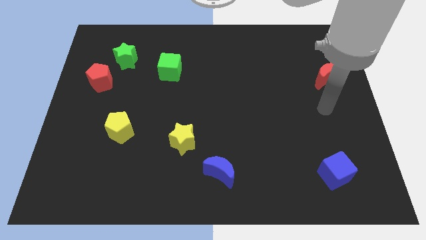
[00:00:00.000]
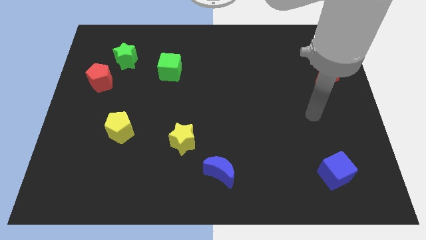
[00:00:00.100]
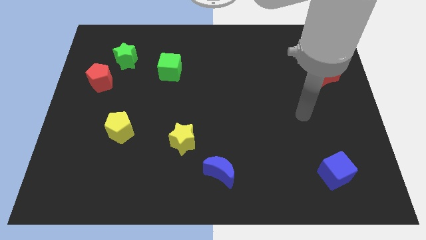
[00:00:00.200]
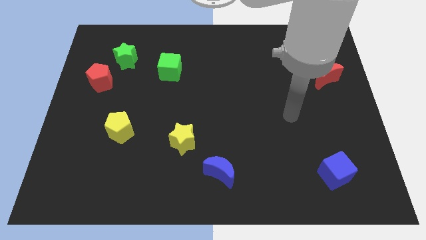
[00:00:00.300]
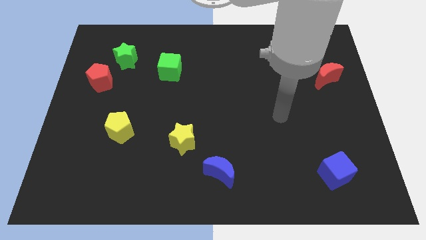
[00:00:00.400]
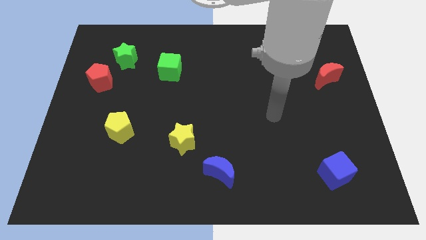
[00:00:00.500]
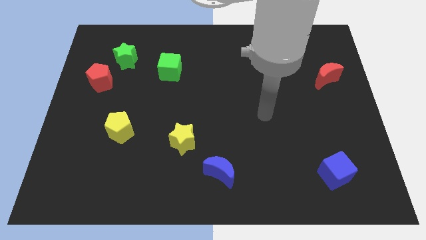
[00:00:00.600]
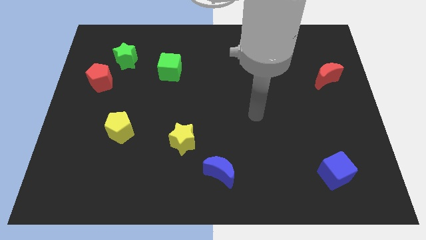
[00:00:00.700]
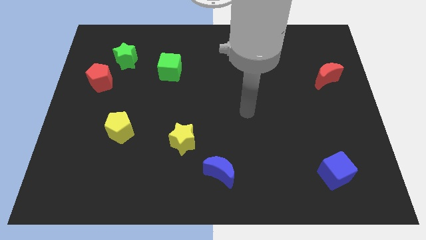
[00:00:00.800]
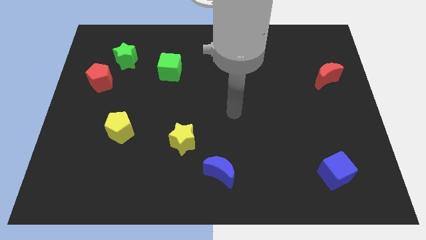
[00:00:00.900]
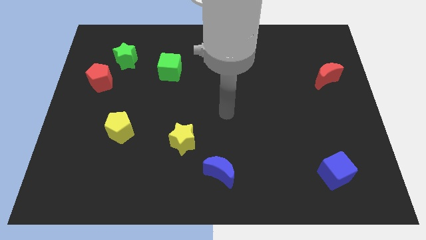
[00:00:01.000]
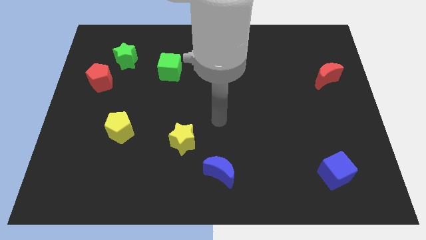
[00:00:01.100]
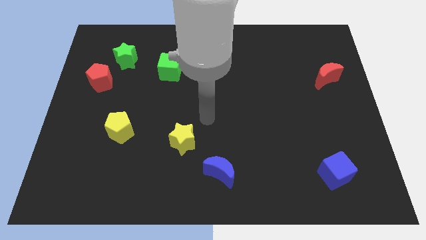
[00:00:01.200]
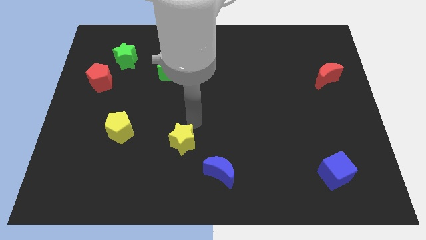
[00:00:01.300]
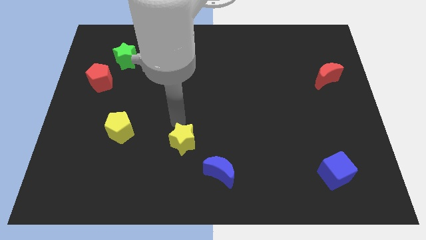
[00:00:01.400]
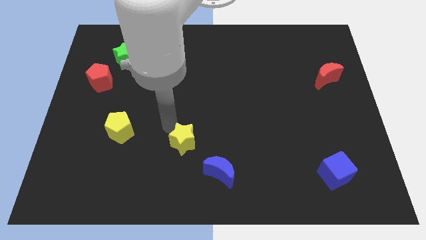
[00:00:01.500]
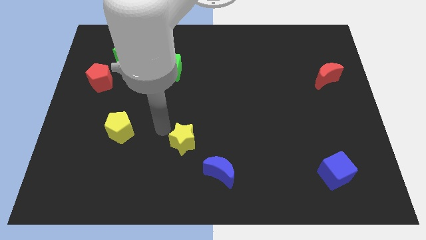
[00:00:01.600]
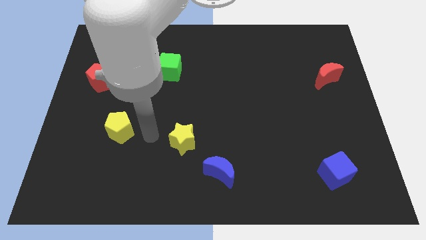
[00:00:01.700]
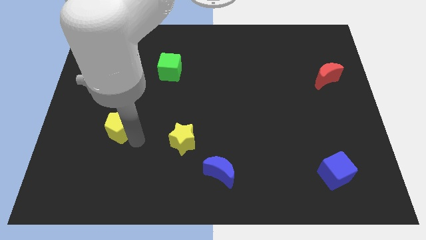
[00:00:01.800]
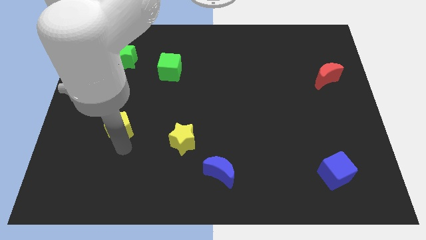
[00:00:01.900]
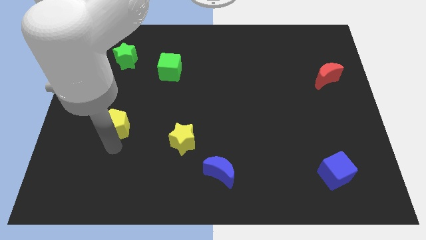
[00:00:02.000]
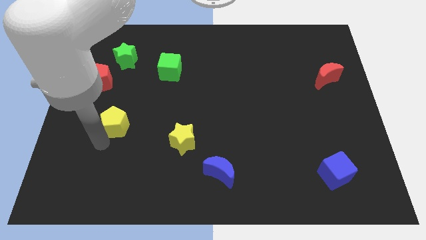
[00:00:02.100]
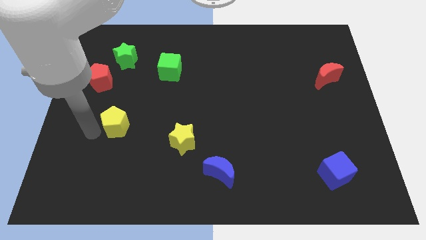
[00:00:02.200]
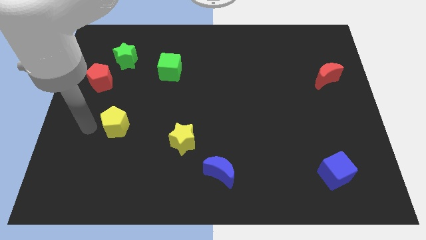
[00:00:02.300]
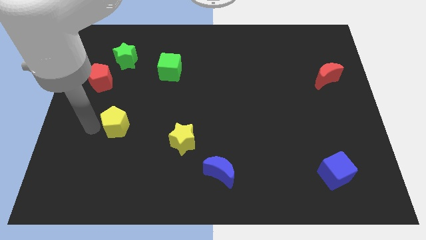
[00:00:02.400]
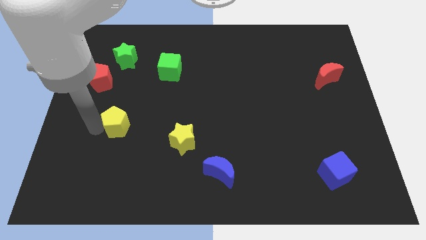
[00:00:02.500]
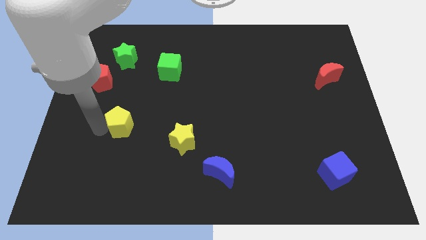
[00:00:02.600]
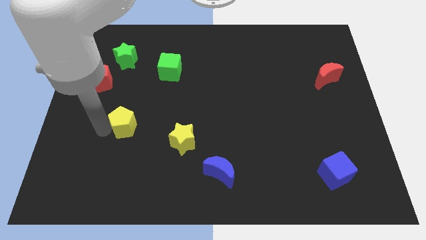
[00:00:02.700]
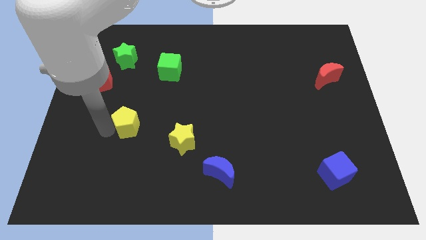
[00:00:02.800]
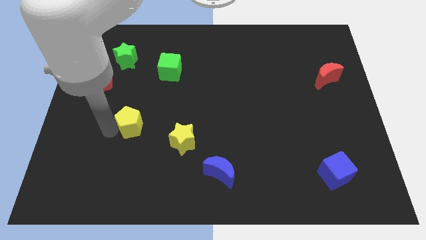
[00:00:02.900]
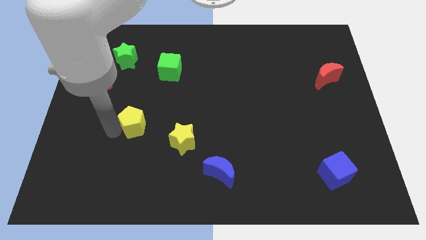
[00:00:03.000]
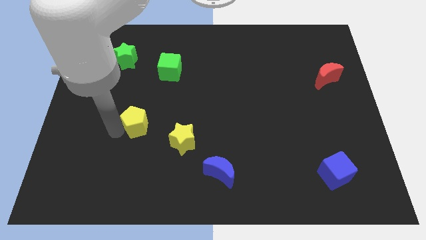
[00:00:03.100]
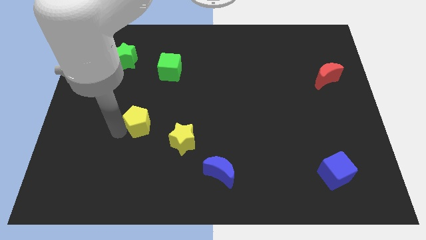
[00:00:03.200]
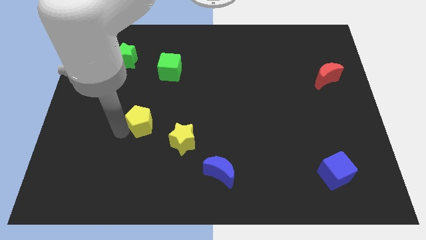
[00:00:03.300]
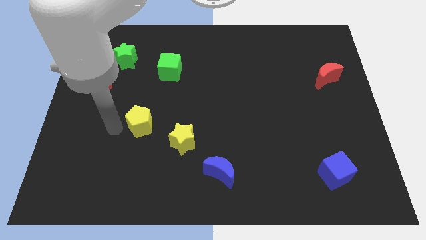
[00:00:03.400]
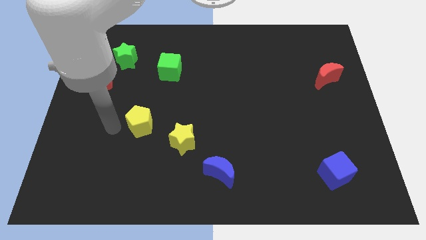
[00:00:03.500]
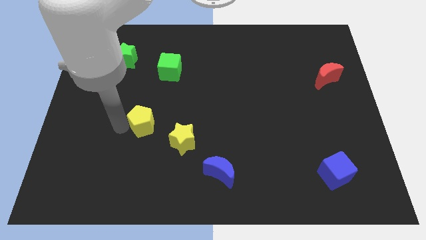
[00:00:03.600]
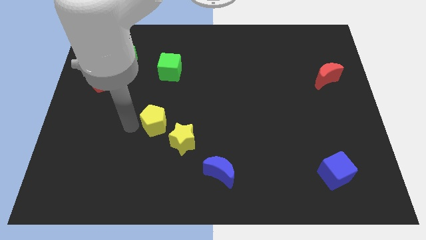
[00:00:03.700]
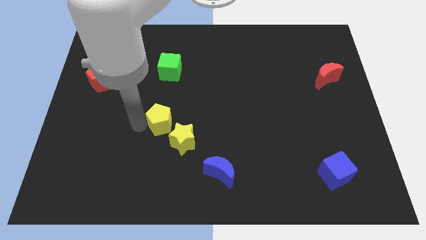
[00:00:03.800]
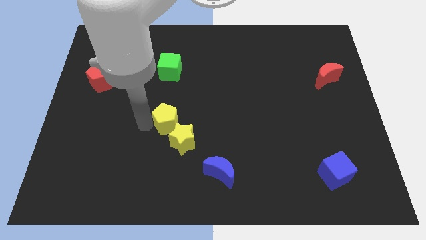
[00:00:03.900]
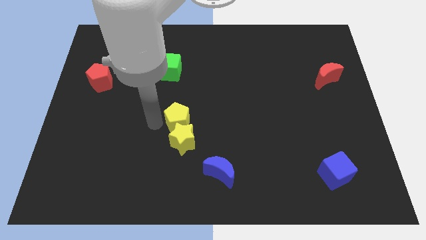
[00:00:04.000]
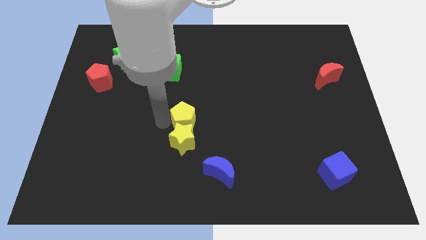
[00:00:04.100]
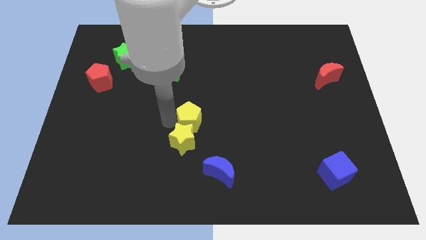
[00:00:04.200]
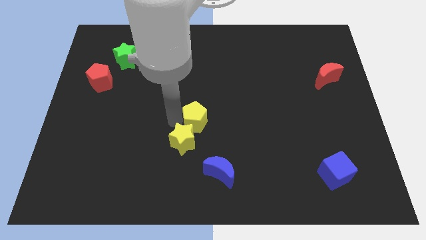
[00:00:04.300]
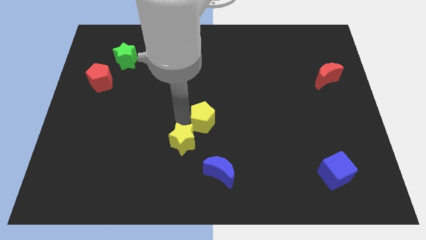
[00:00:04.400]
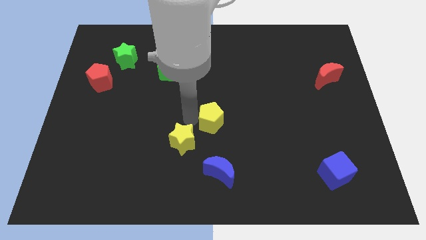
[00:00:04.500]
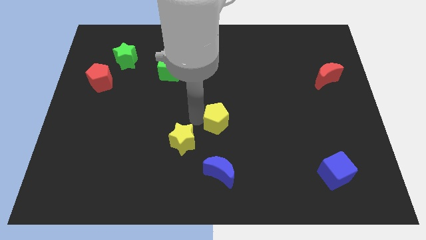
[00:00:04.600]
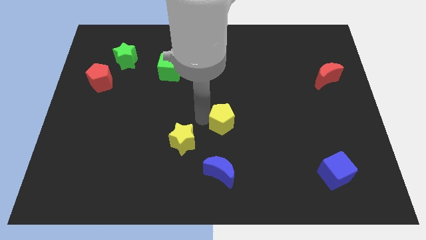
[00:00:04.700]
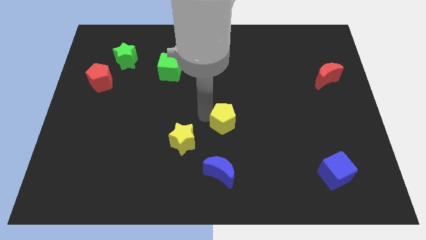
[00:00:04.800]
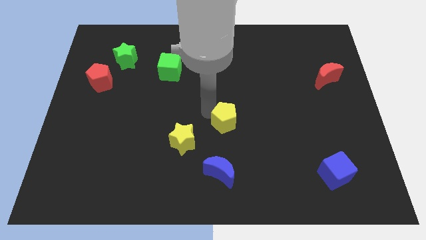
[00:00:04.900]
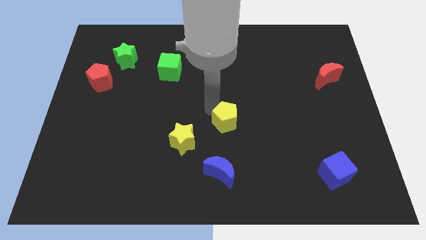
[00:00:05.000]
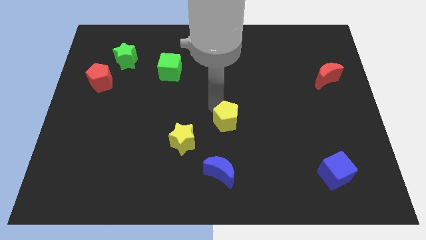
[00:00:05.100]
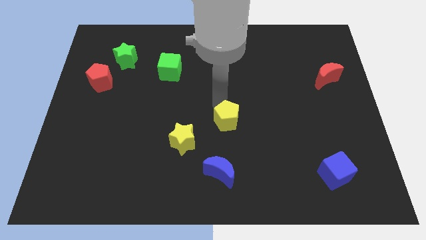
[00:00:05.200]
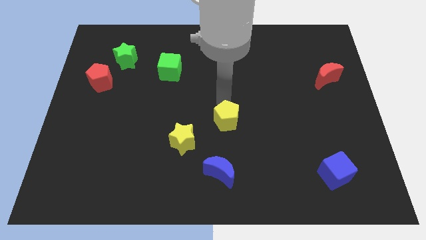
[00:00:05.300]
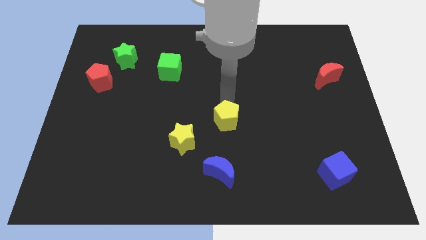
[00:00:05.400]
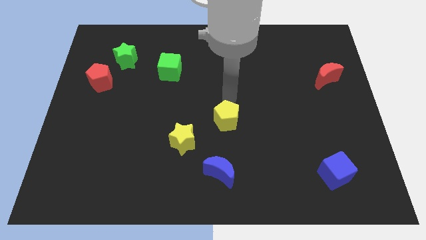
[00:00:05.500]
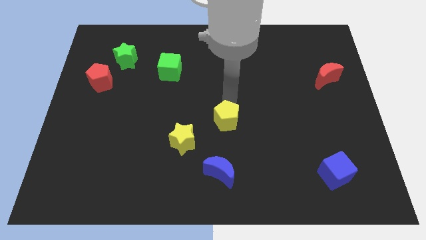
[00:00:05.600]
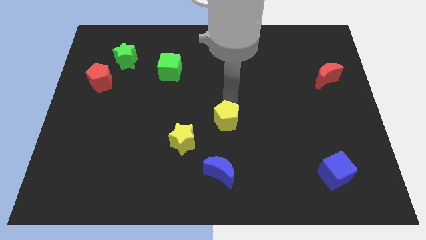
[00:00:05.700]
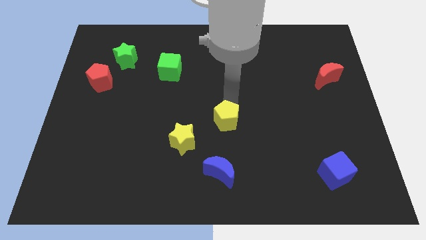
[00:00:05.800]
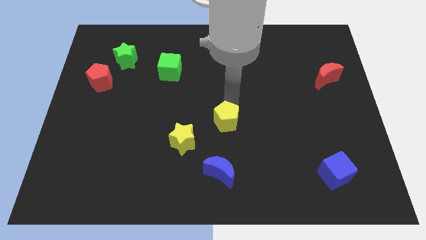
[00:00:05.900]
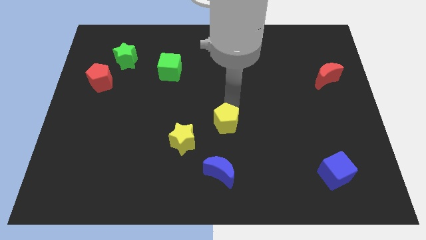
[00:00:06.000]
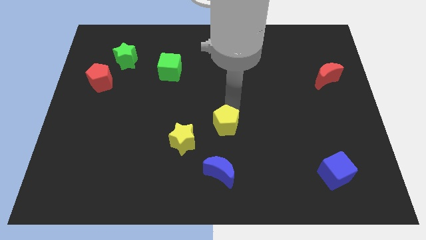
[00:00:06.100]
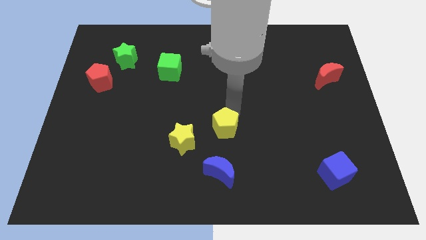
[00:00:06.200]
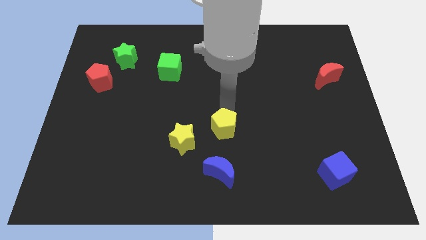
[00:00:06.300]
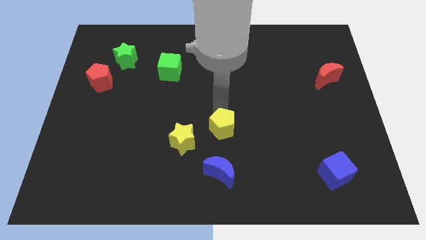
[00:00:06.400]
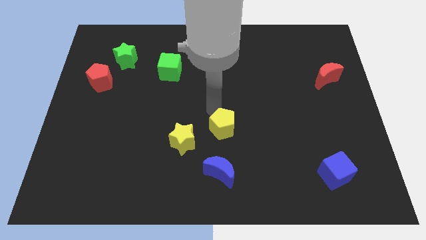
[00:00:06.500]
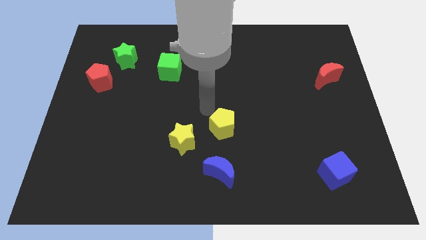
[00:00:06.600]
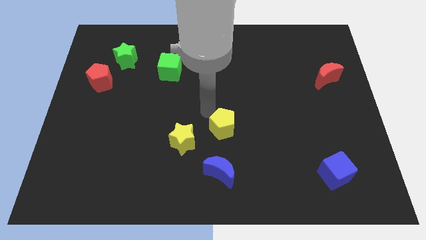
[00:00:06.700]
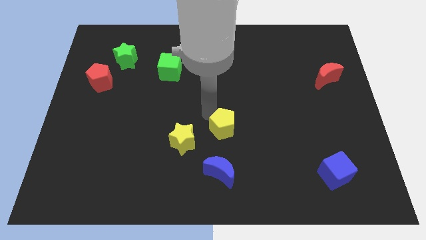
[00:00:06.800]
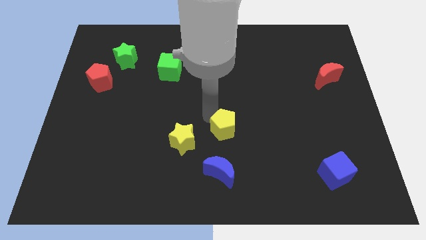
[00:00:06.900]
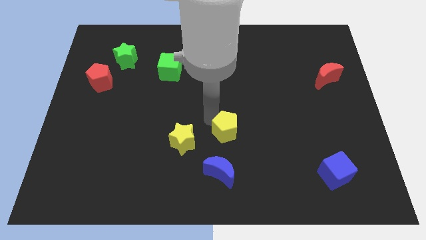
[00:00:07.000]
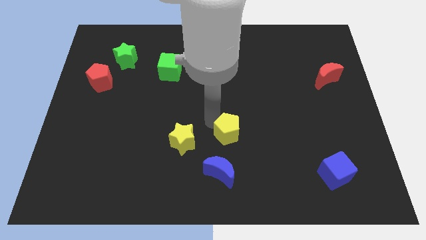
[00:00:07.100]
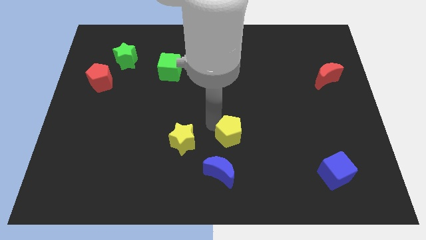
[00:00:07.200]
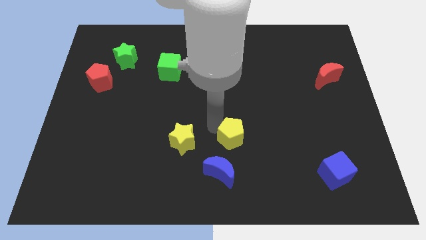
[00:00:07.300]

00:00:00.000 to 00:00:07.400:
move the yellow pentagon diagonally up and to the right of the blue moon
